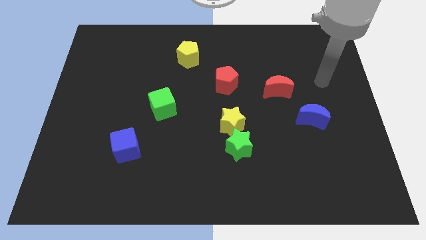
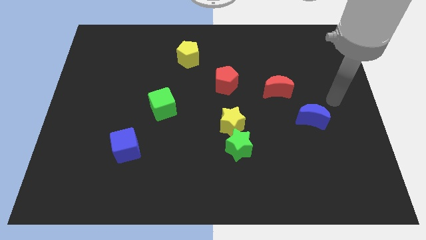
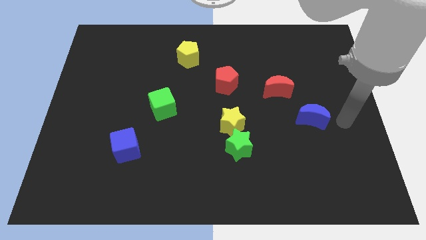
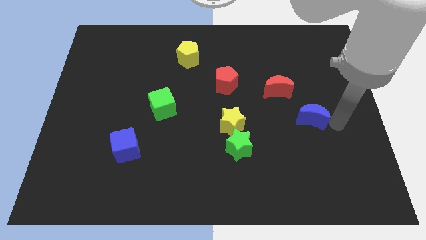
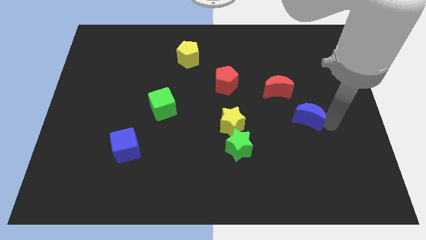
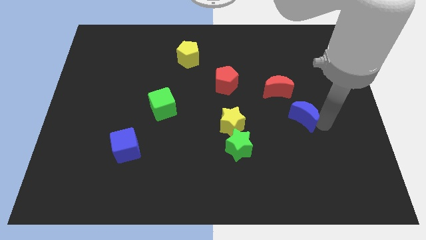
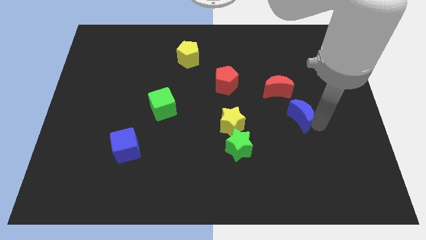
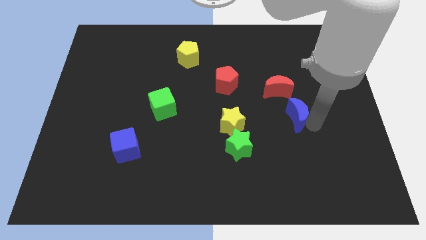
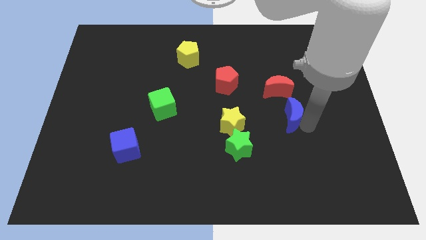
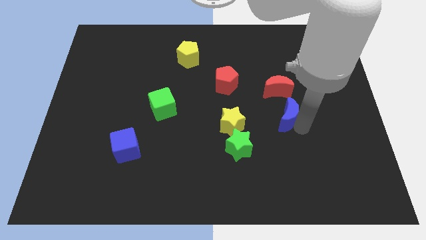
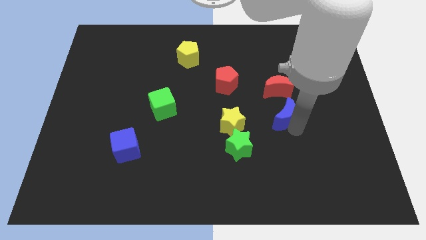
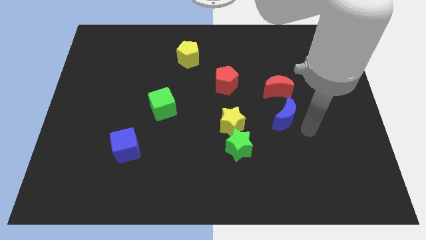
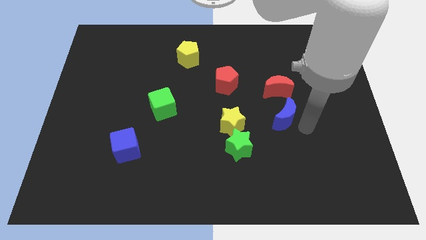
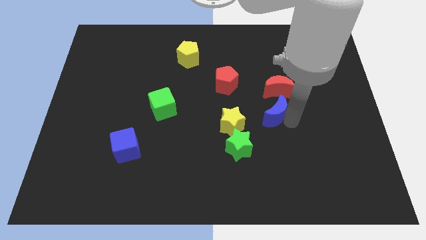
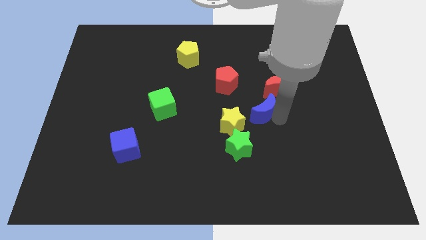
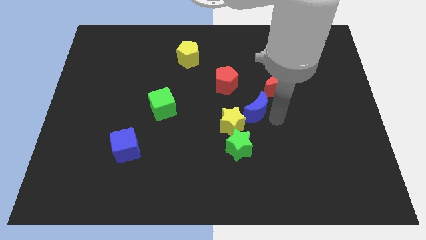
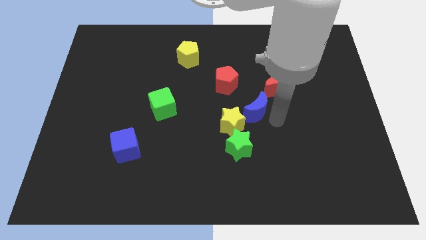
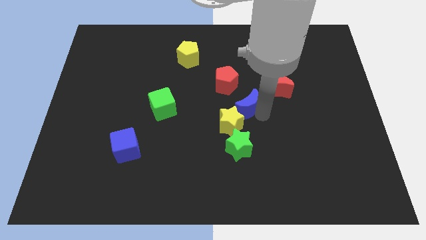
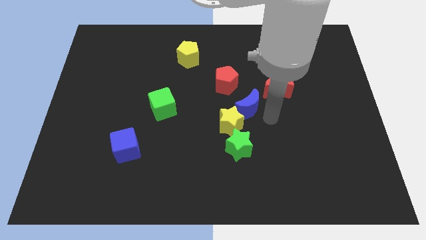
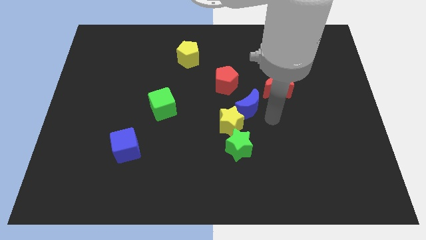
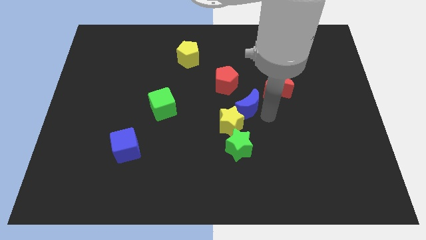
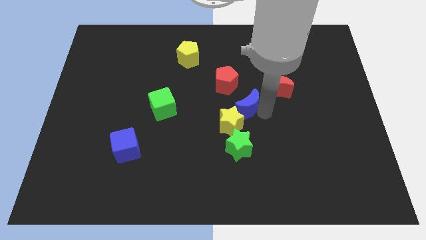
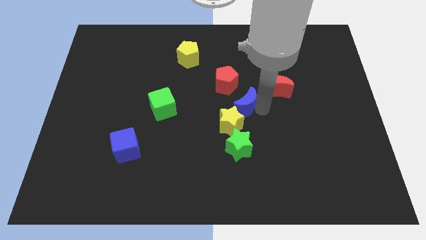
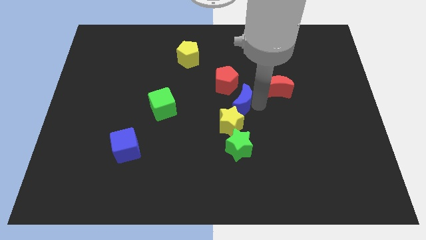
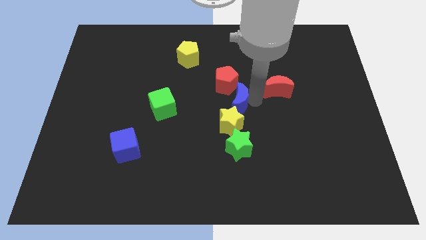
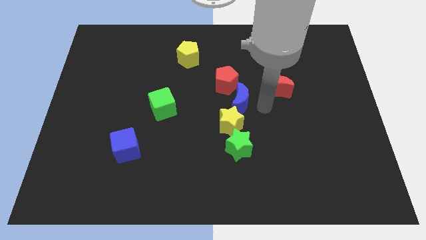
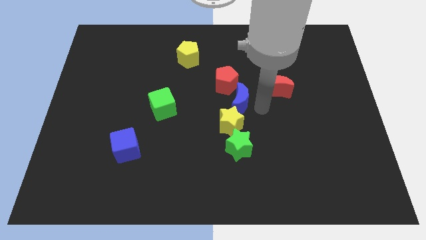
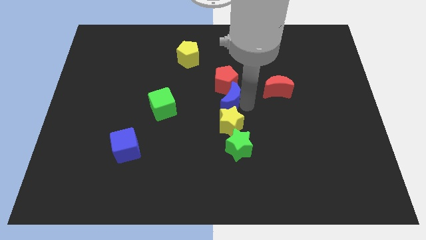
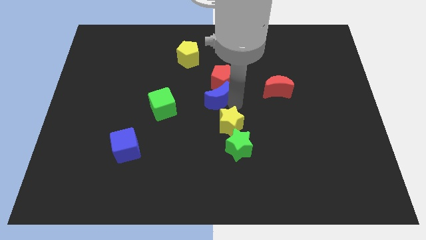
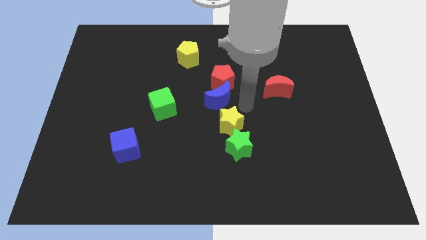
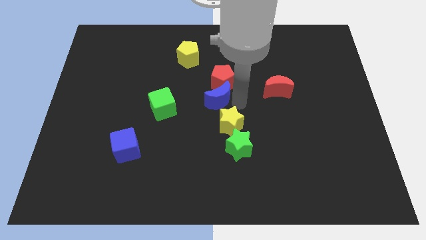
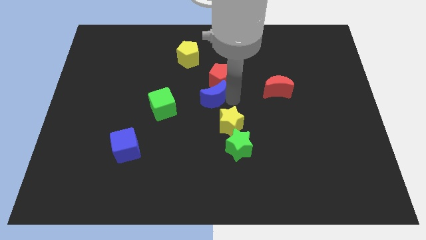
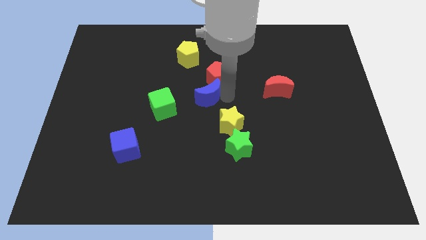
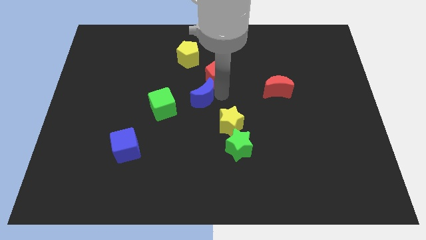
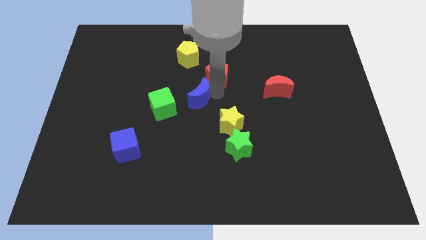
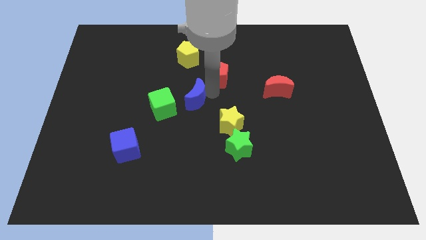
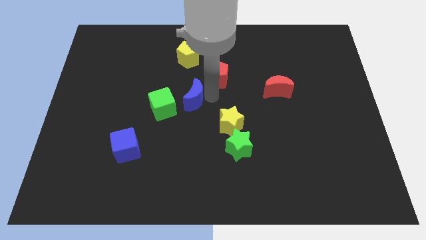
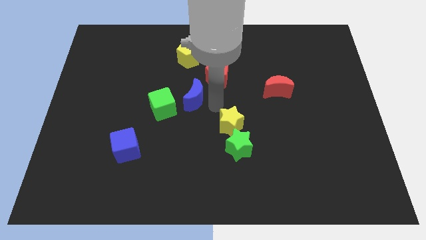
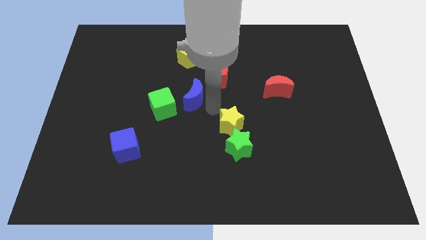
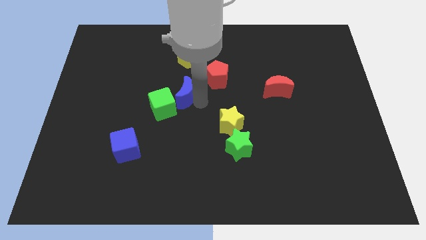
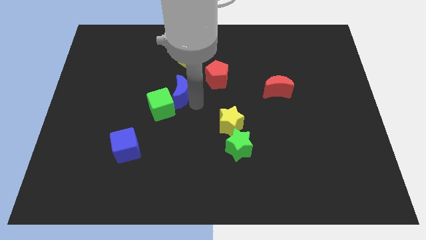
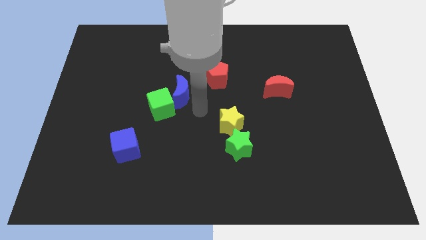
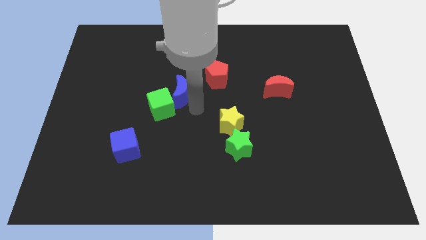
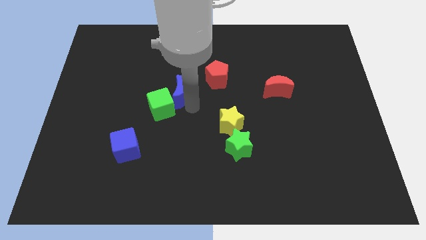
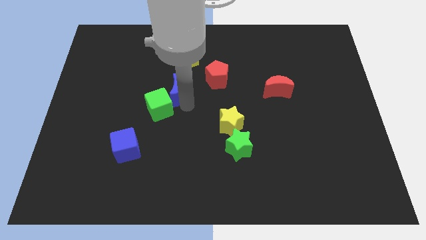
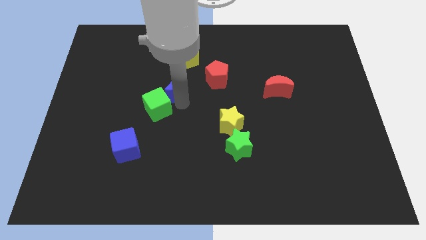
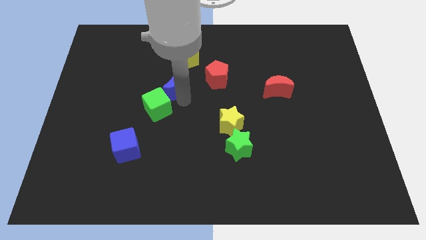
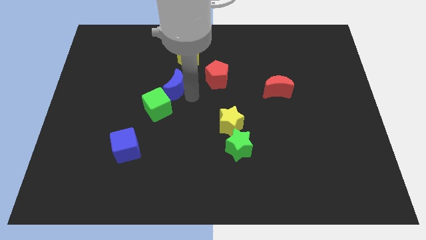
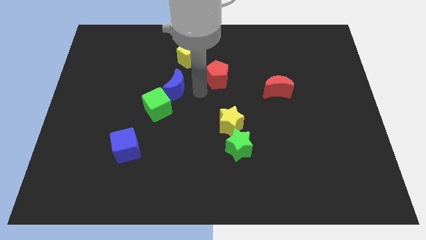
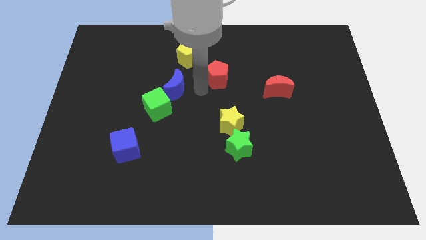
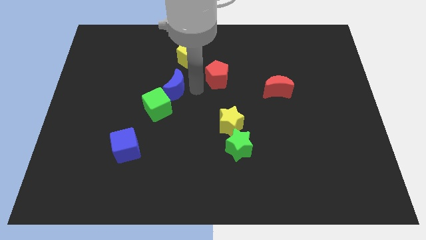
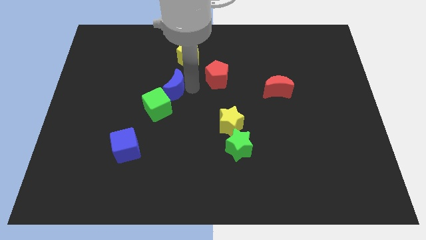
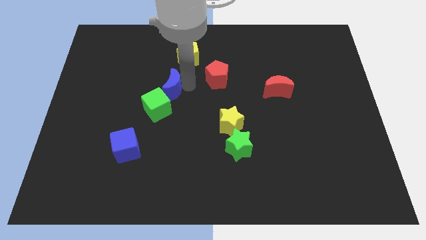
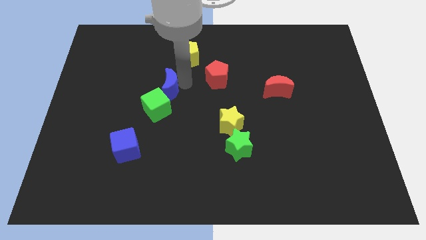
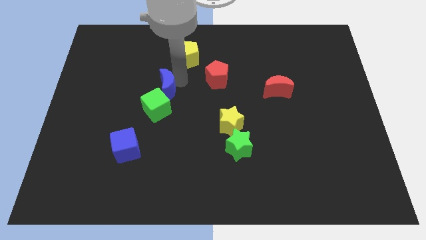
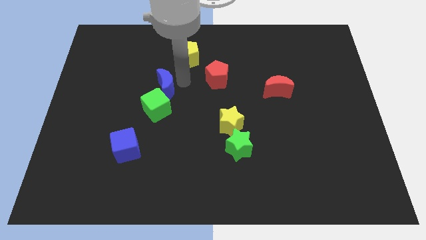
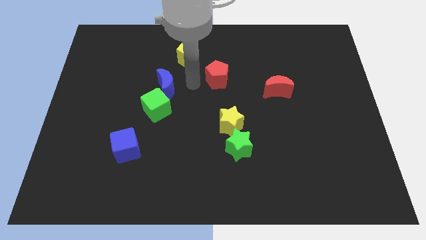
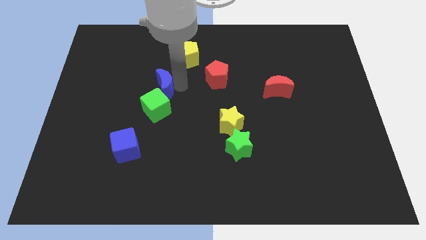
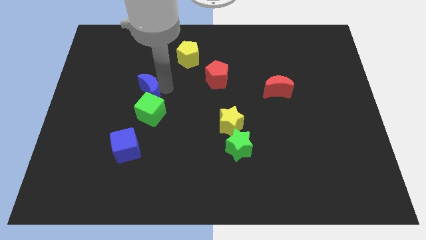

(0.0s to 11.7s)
slide the blue moon diagonally up and to the left of the green cube

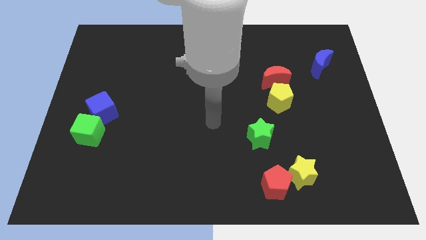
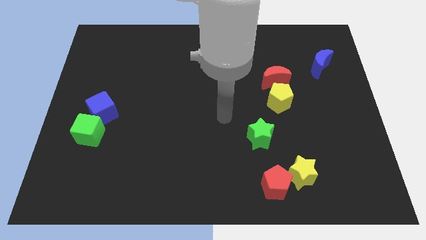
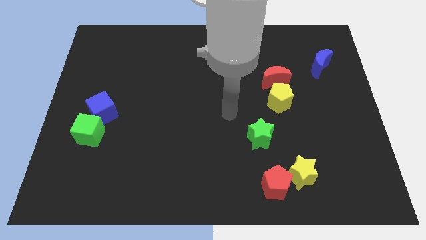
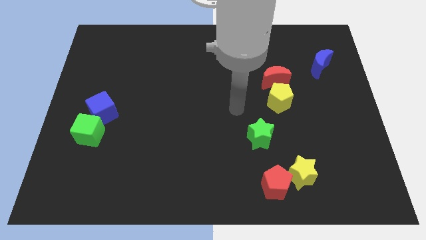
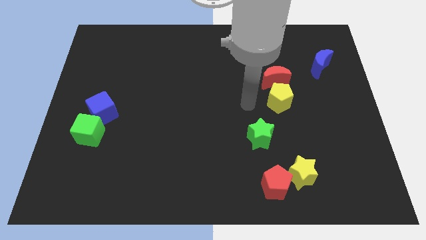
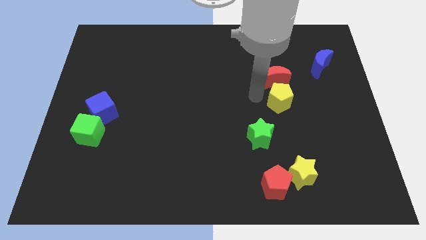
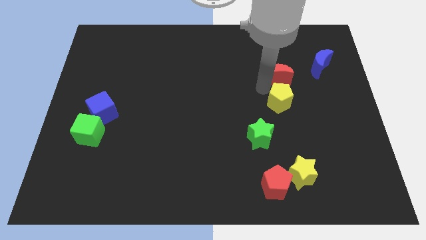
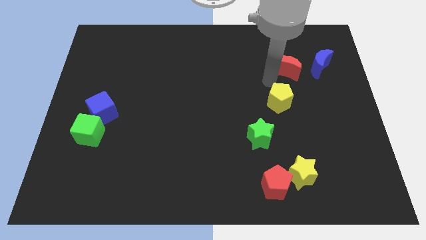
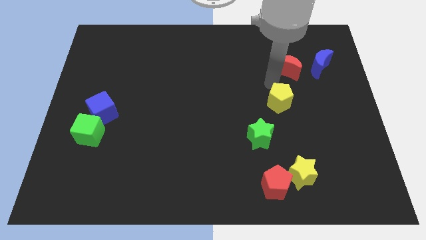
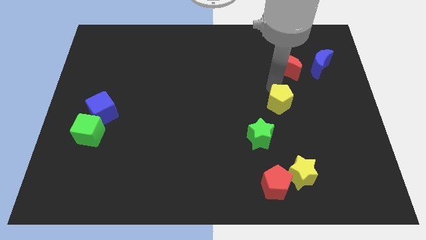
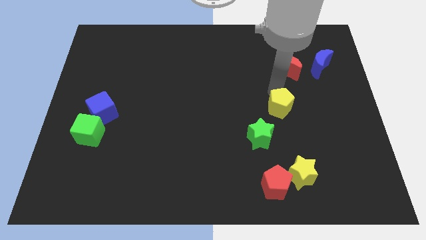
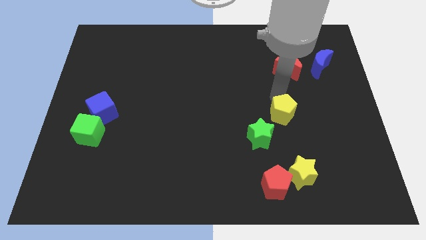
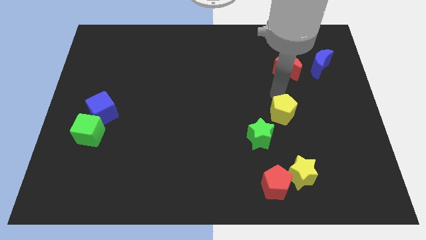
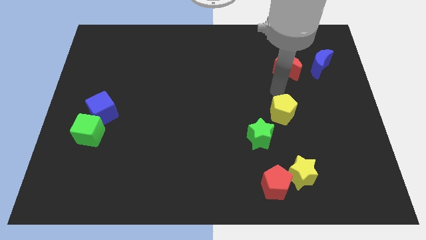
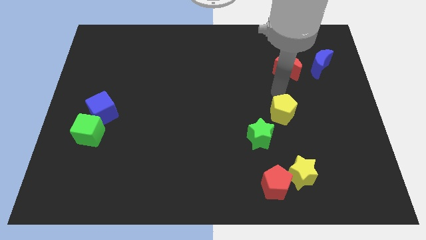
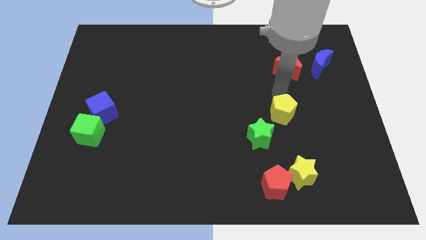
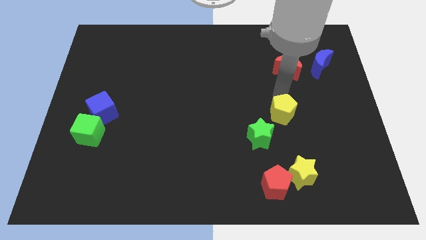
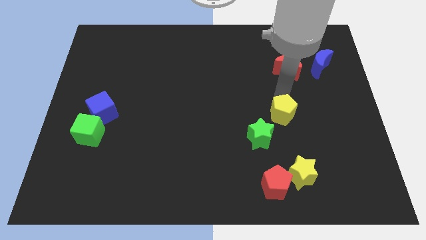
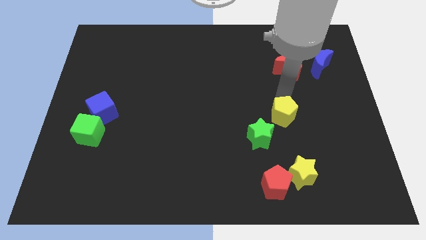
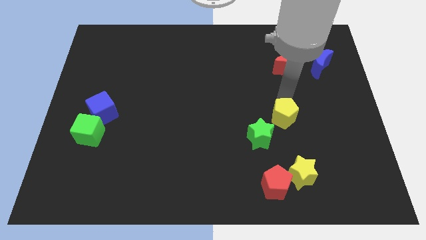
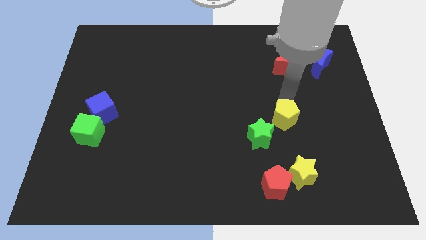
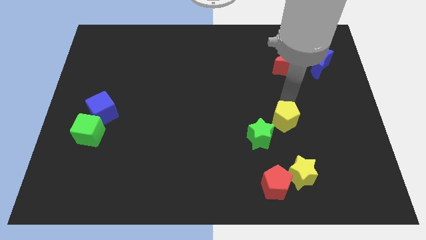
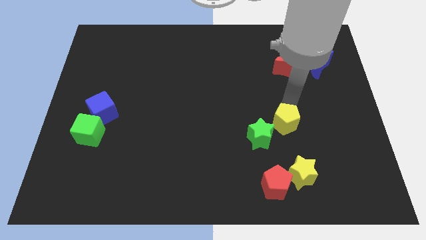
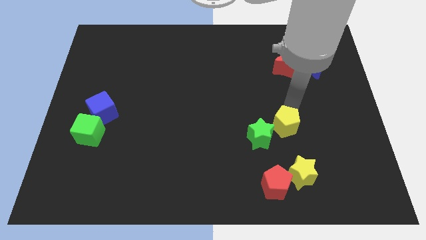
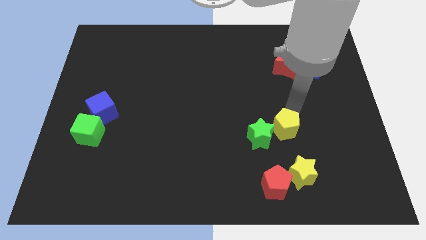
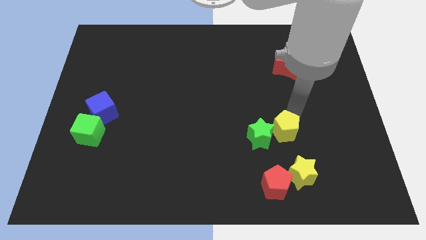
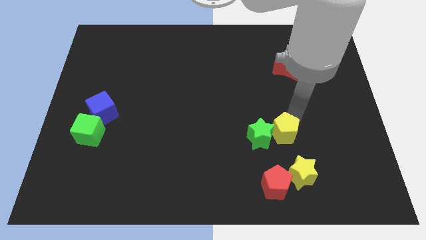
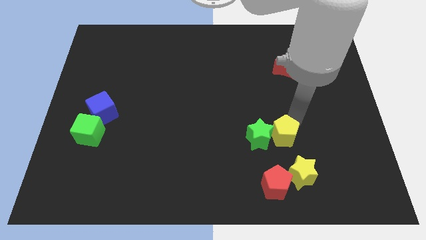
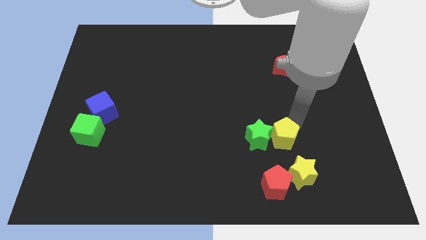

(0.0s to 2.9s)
slide the yellow pentagon diagonally up and to the left of the yellow star
